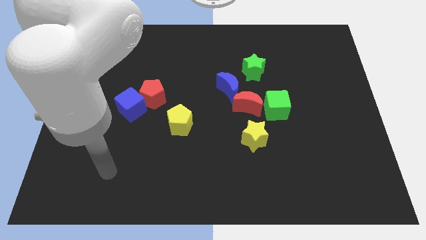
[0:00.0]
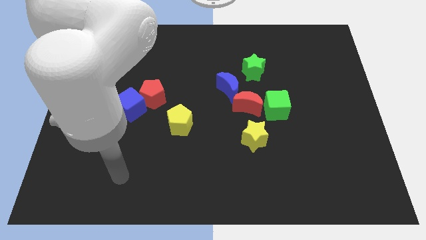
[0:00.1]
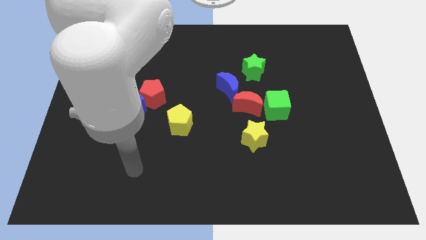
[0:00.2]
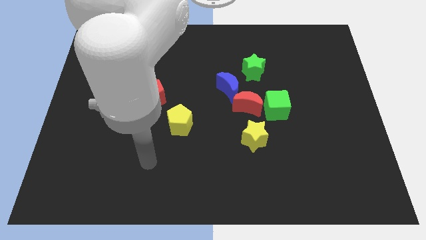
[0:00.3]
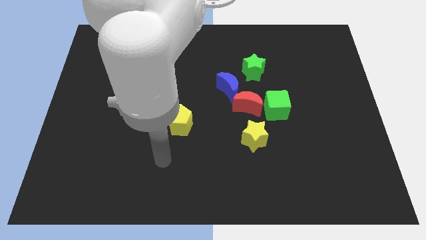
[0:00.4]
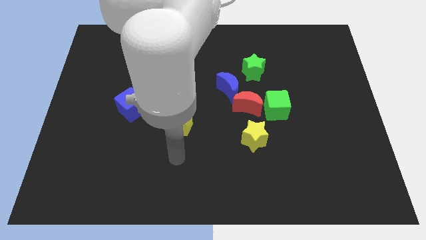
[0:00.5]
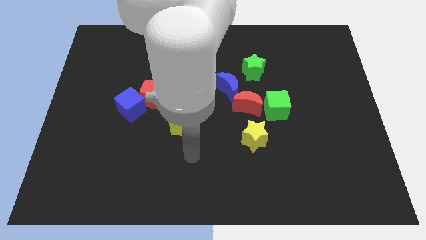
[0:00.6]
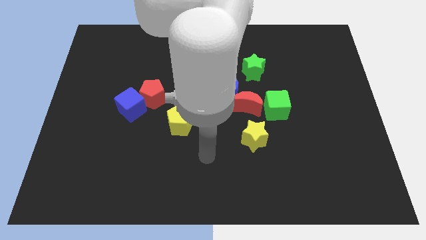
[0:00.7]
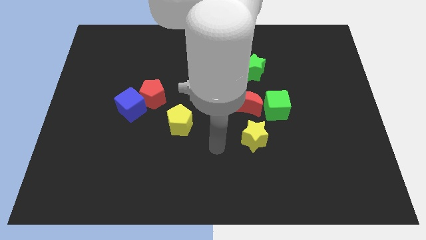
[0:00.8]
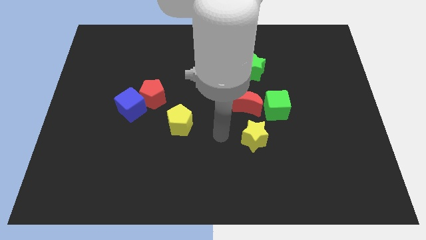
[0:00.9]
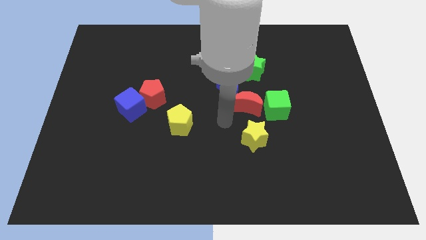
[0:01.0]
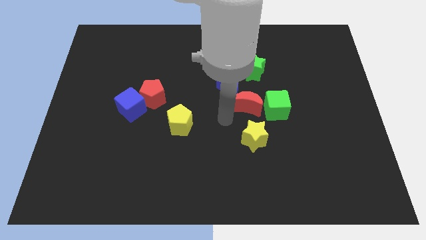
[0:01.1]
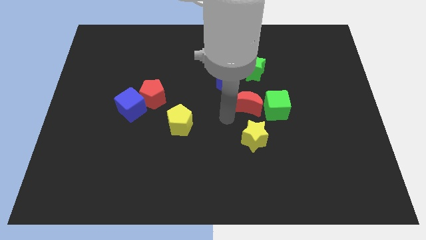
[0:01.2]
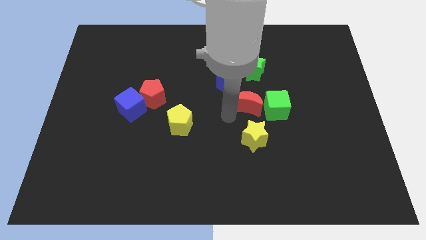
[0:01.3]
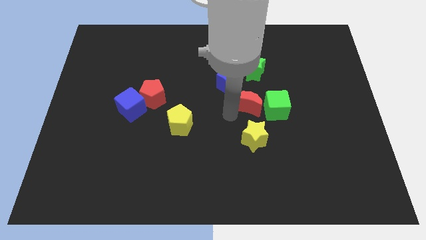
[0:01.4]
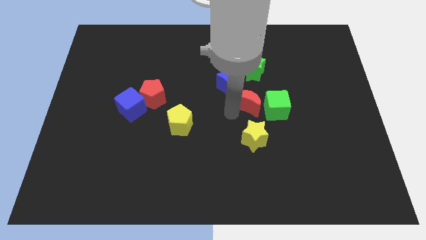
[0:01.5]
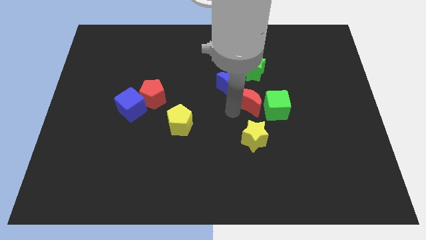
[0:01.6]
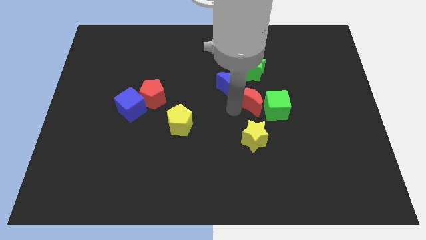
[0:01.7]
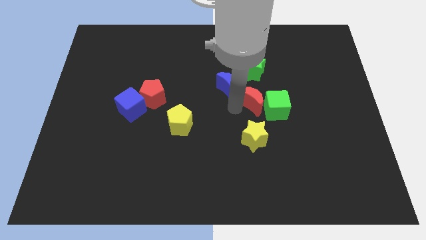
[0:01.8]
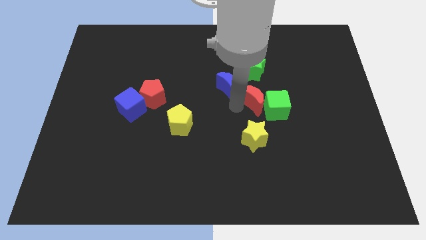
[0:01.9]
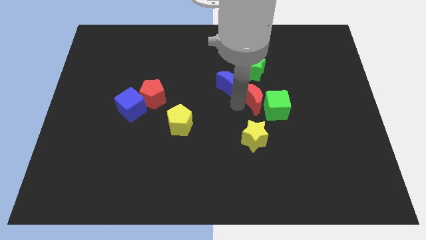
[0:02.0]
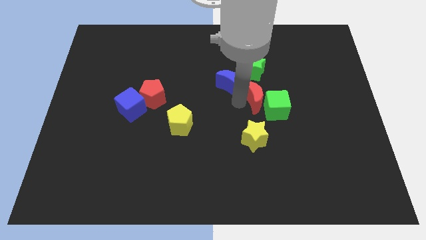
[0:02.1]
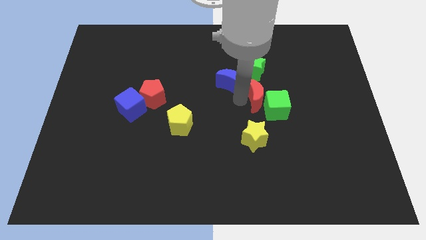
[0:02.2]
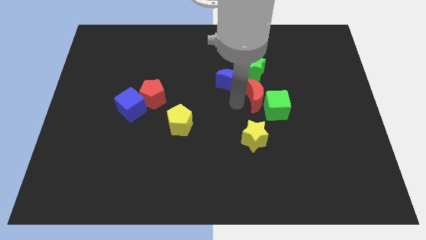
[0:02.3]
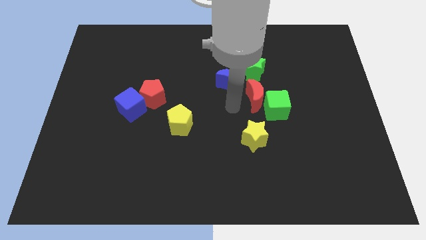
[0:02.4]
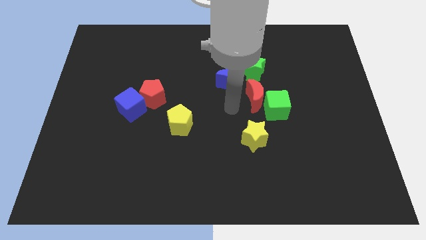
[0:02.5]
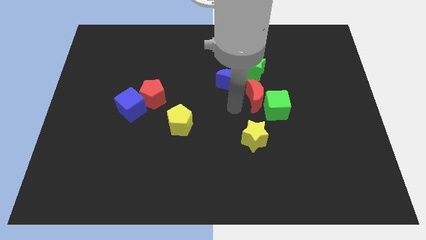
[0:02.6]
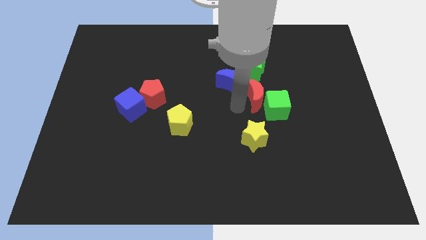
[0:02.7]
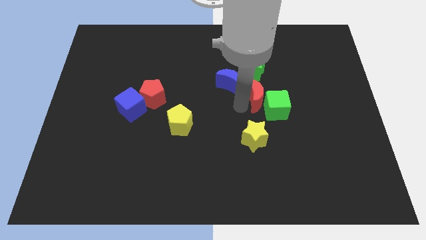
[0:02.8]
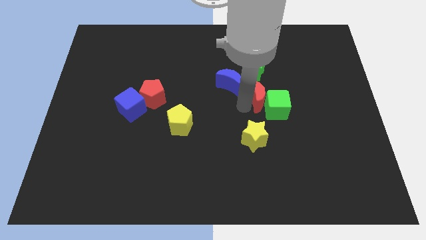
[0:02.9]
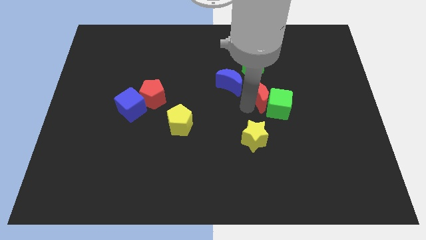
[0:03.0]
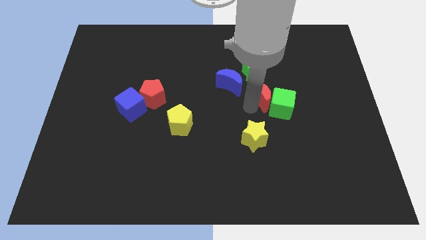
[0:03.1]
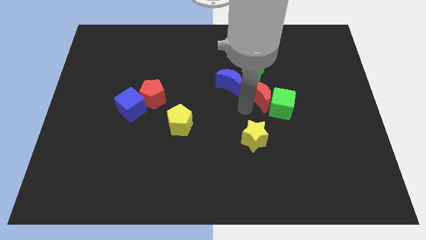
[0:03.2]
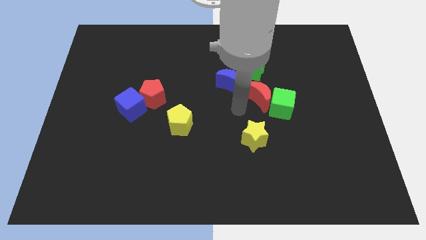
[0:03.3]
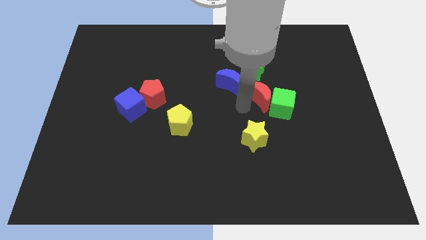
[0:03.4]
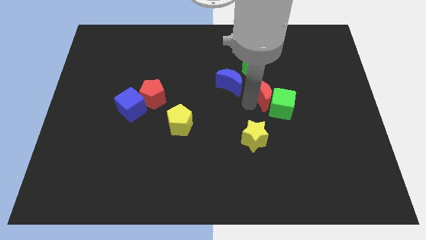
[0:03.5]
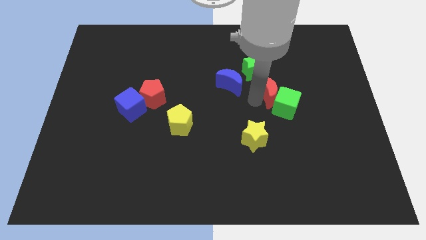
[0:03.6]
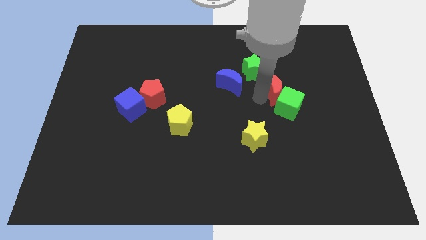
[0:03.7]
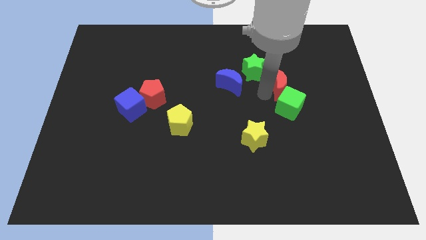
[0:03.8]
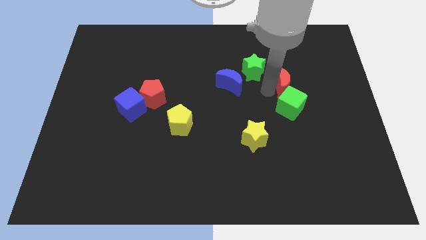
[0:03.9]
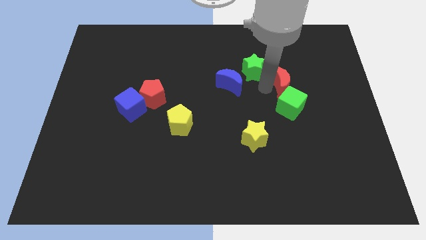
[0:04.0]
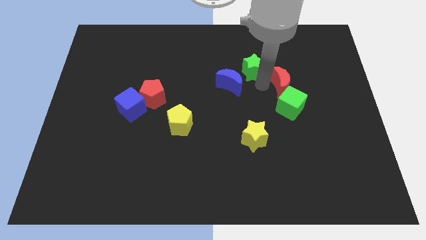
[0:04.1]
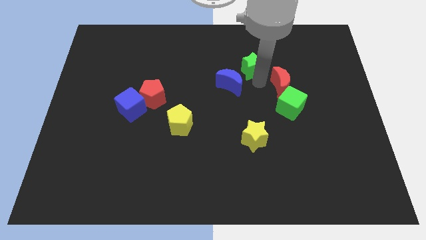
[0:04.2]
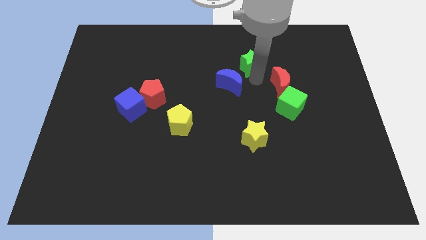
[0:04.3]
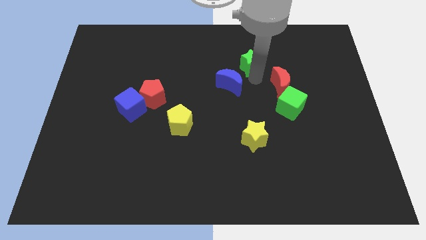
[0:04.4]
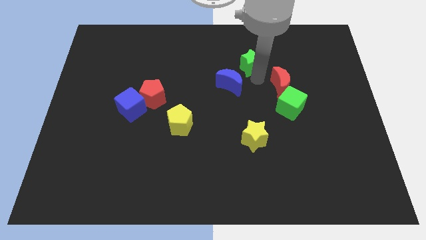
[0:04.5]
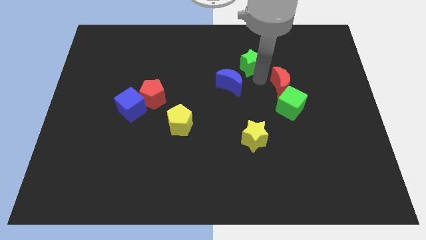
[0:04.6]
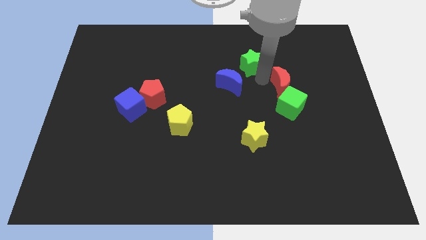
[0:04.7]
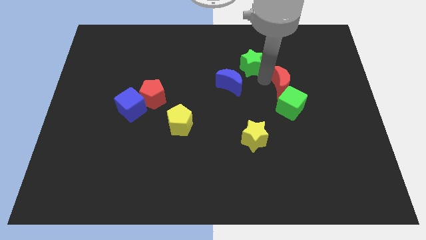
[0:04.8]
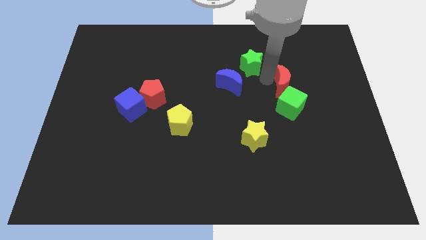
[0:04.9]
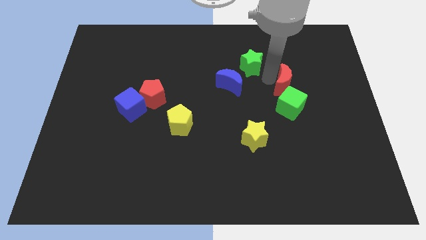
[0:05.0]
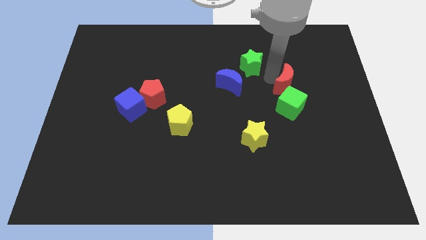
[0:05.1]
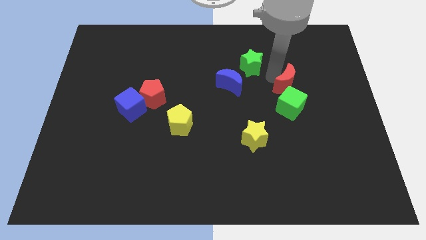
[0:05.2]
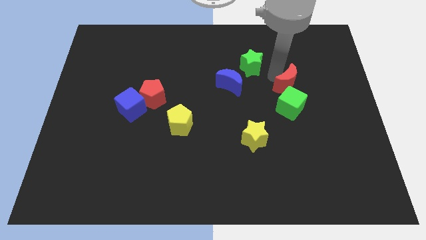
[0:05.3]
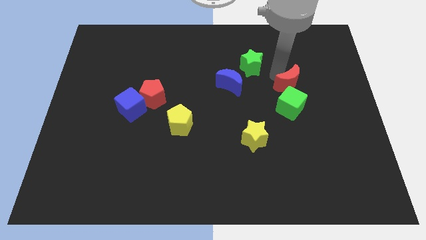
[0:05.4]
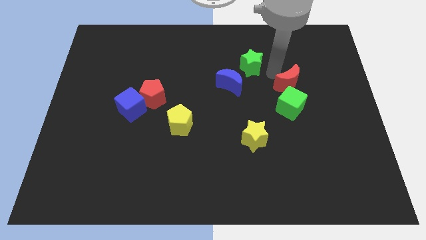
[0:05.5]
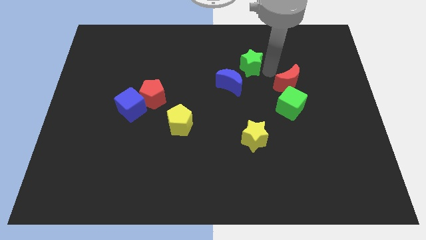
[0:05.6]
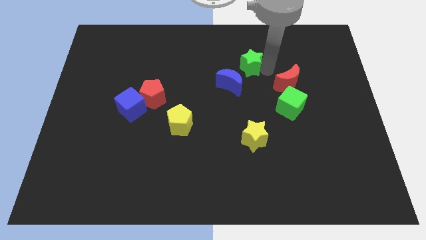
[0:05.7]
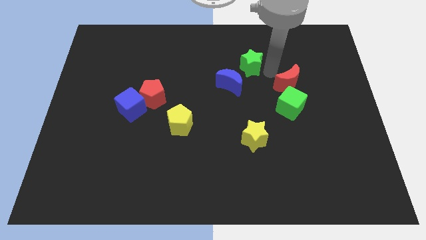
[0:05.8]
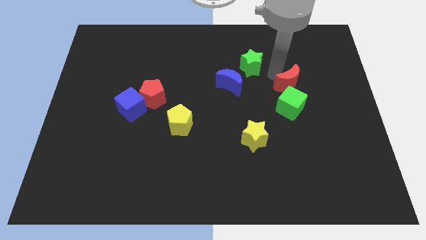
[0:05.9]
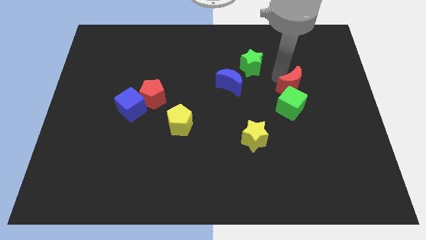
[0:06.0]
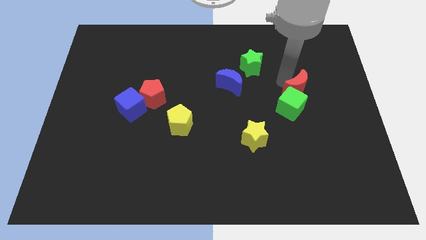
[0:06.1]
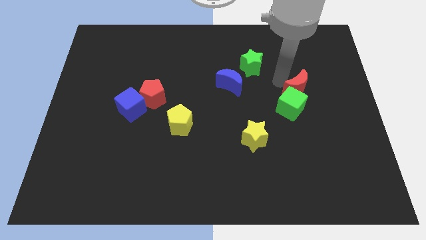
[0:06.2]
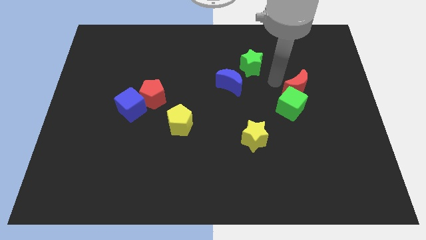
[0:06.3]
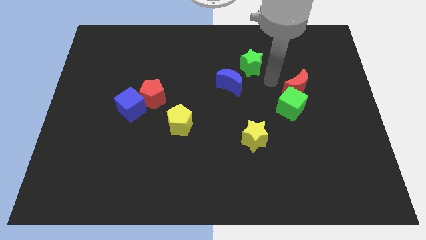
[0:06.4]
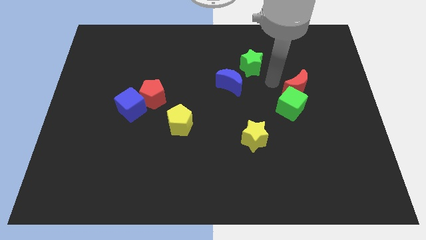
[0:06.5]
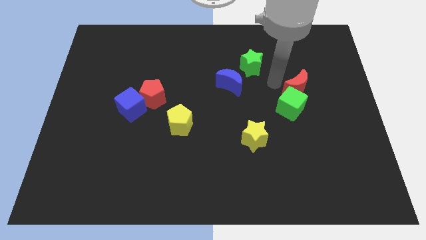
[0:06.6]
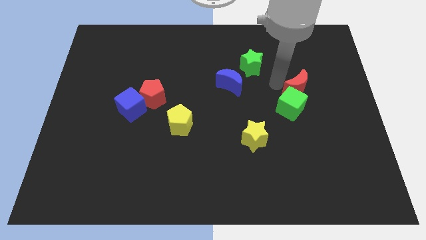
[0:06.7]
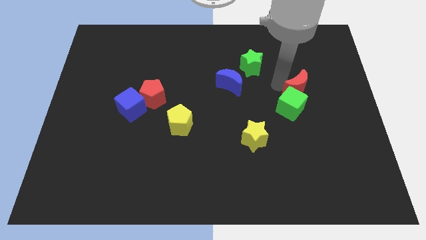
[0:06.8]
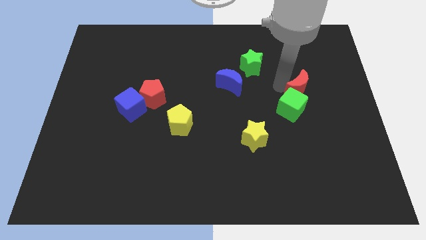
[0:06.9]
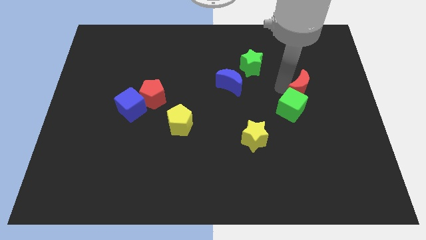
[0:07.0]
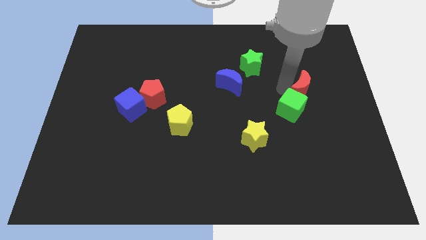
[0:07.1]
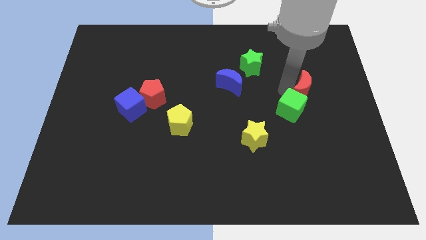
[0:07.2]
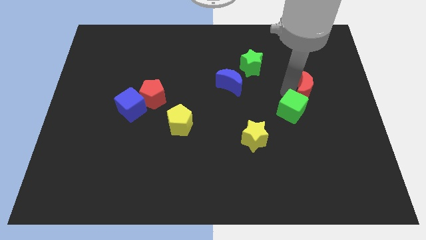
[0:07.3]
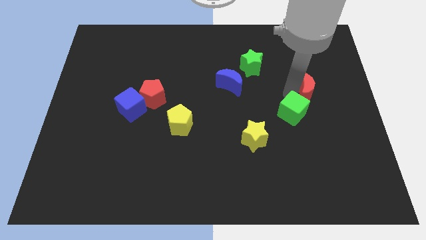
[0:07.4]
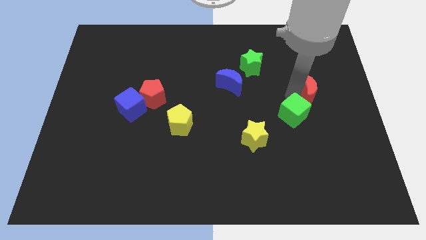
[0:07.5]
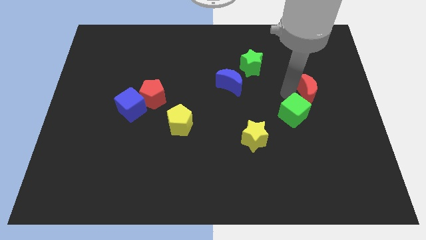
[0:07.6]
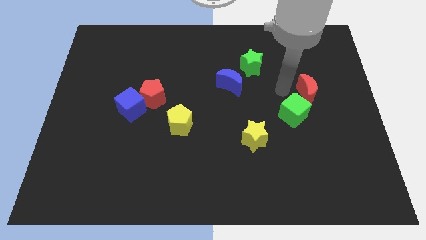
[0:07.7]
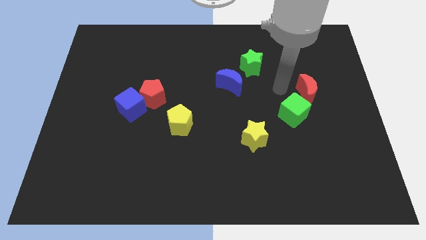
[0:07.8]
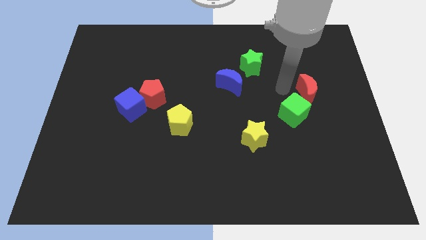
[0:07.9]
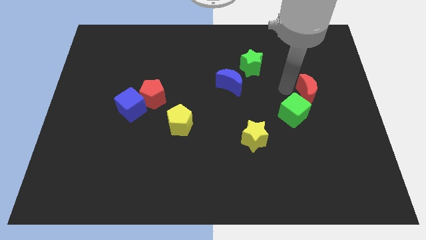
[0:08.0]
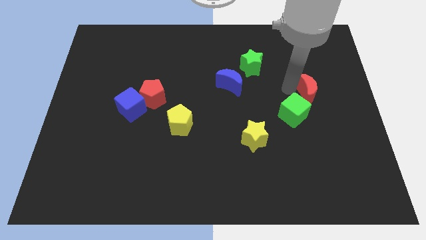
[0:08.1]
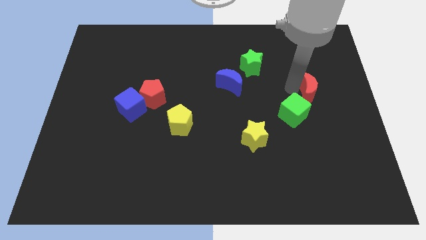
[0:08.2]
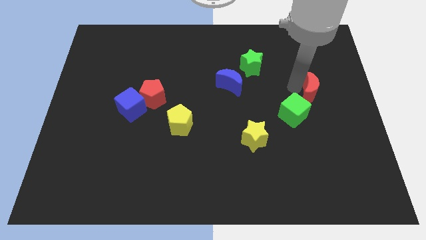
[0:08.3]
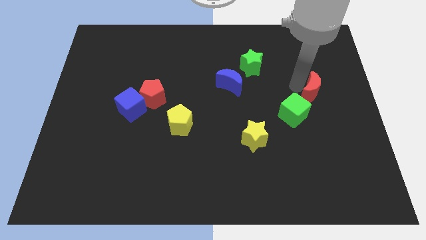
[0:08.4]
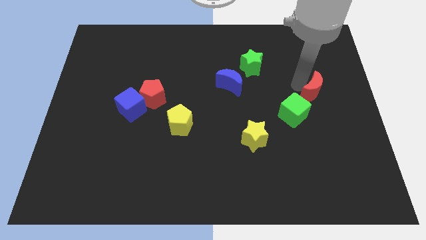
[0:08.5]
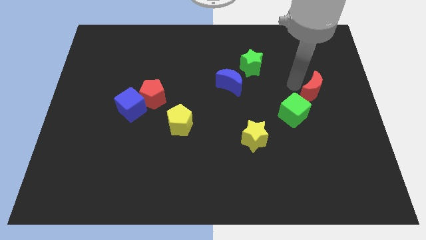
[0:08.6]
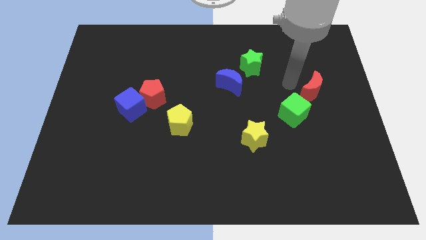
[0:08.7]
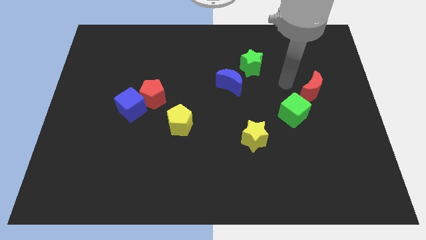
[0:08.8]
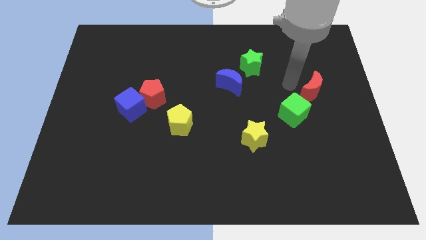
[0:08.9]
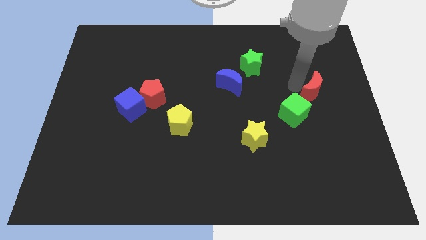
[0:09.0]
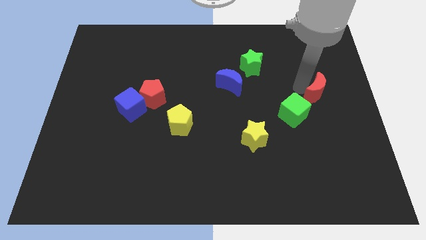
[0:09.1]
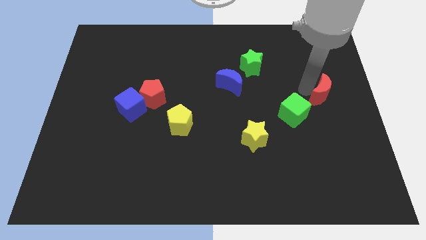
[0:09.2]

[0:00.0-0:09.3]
move the red moon to the right side of the board
